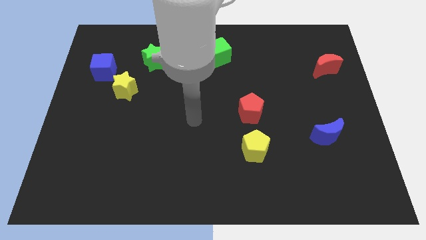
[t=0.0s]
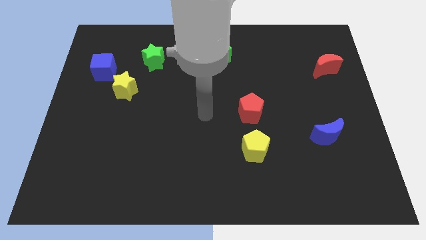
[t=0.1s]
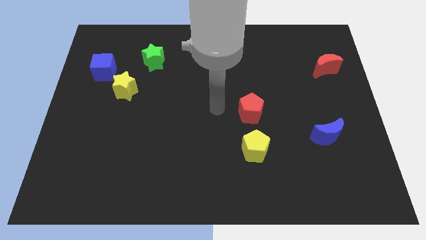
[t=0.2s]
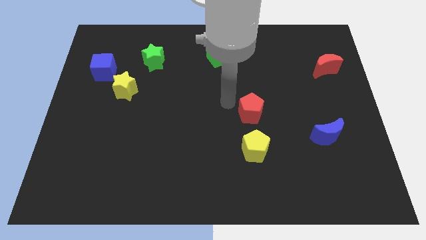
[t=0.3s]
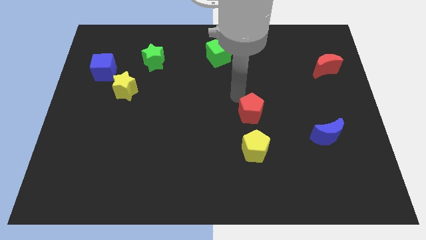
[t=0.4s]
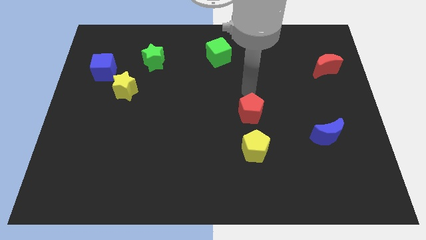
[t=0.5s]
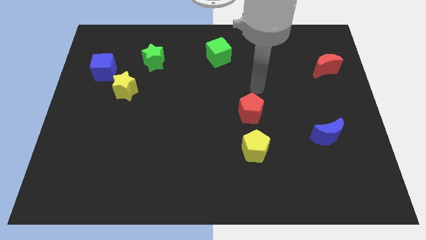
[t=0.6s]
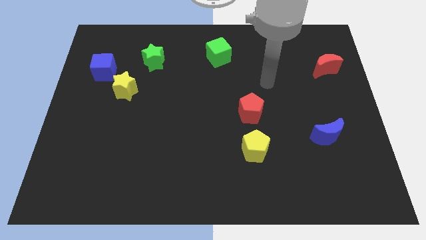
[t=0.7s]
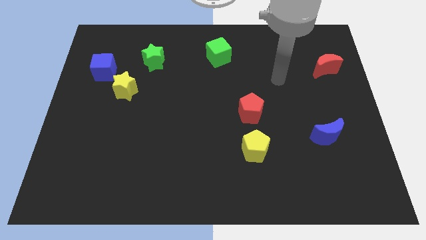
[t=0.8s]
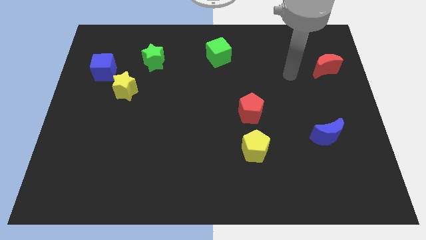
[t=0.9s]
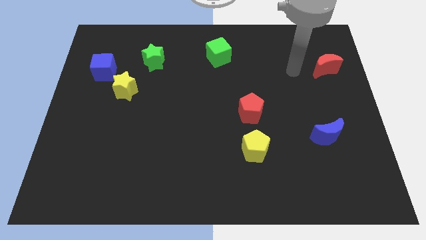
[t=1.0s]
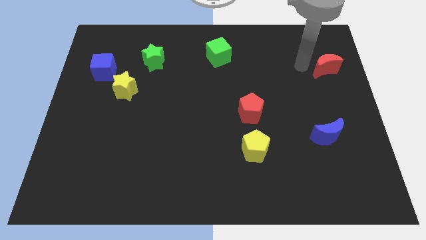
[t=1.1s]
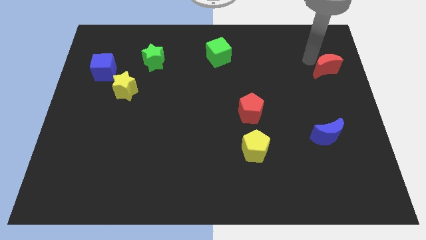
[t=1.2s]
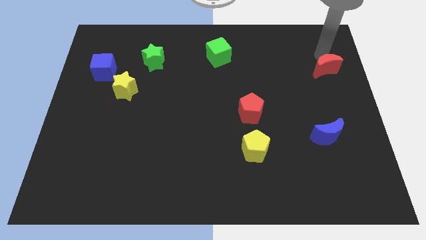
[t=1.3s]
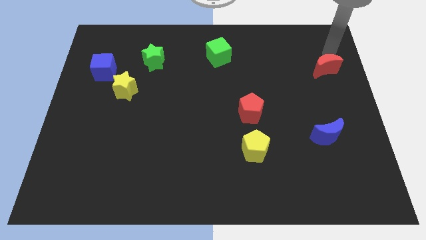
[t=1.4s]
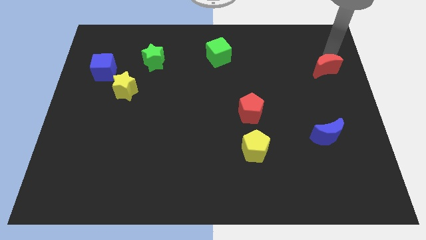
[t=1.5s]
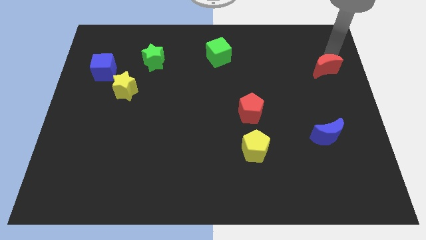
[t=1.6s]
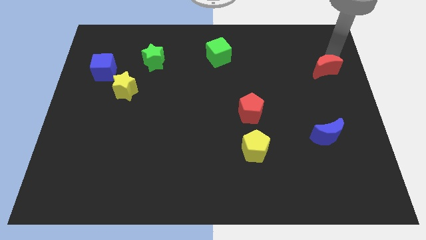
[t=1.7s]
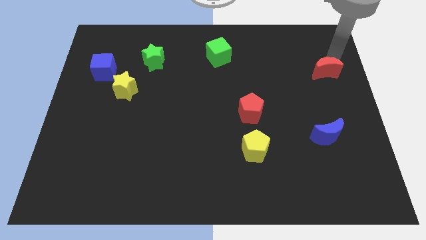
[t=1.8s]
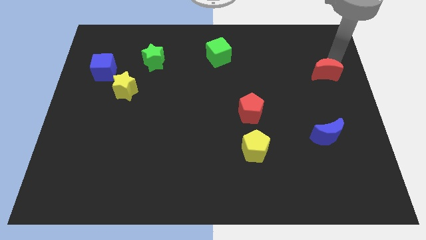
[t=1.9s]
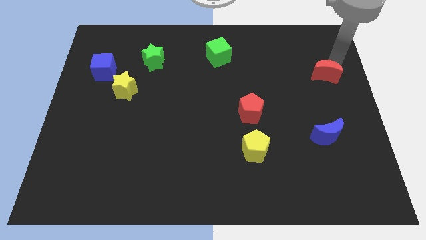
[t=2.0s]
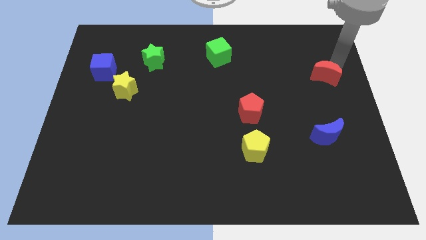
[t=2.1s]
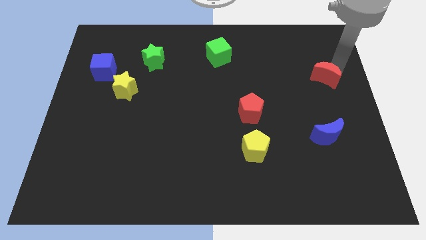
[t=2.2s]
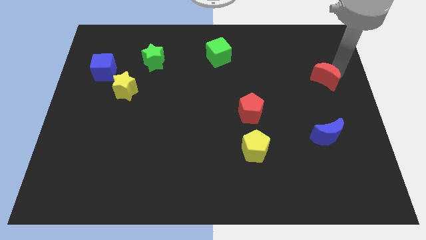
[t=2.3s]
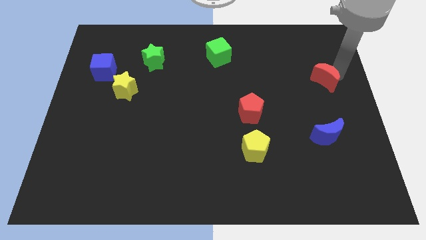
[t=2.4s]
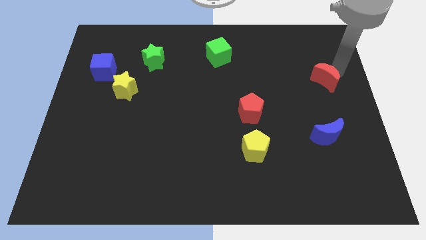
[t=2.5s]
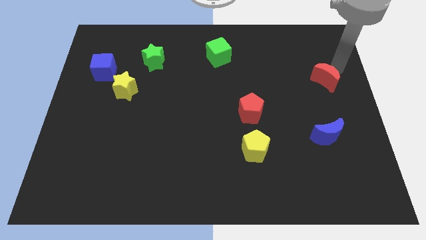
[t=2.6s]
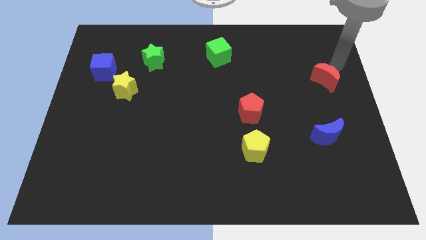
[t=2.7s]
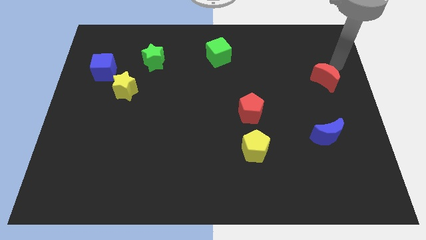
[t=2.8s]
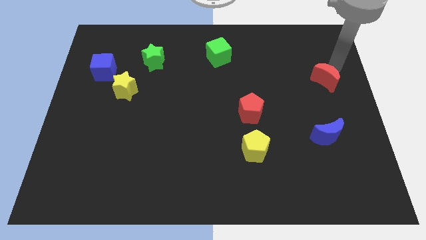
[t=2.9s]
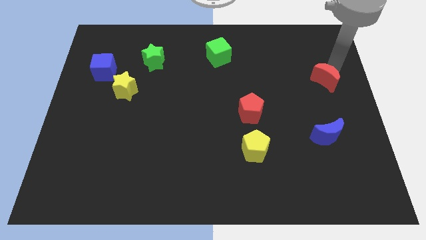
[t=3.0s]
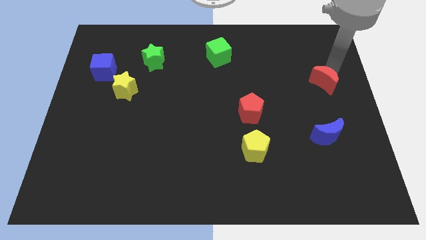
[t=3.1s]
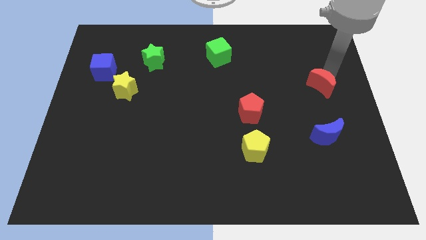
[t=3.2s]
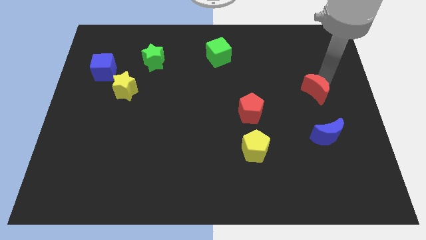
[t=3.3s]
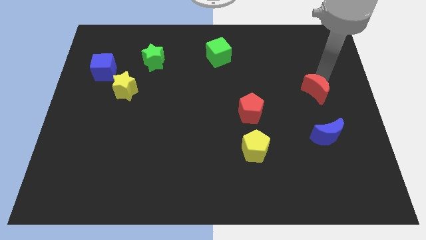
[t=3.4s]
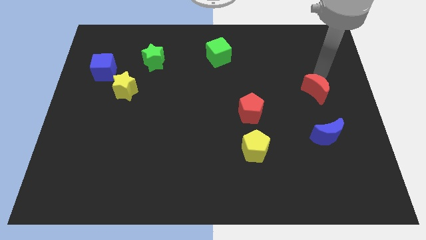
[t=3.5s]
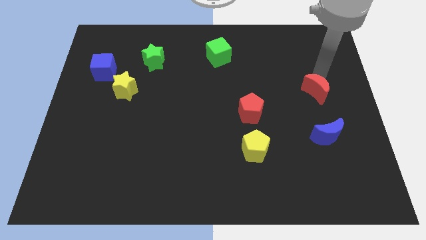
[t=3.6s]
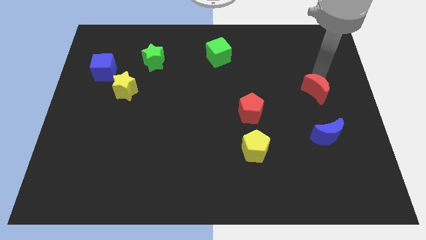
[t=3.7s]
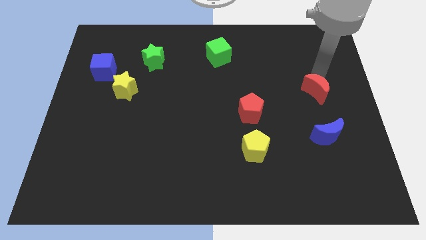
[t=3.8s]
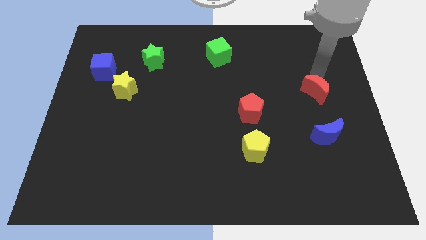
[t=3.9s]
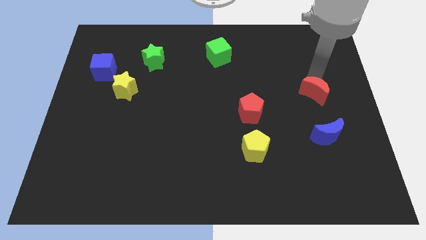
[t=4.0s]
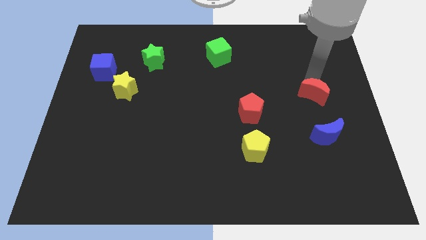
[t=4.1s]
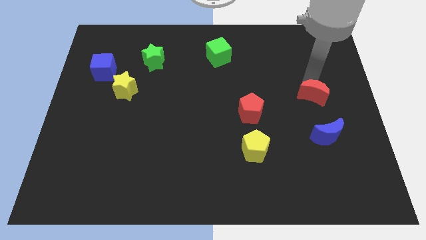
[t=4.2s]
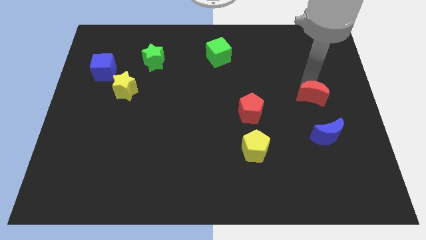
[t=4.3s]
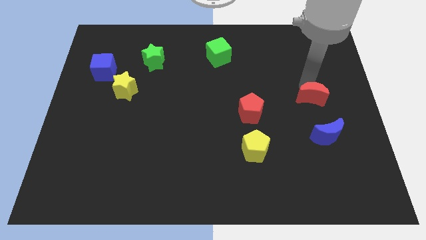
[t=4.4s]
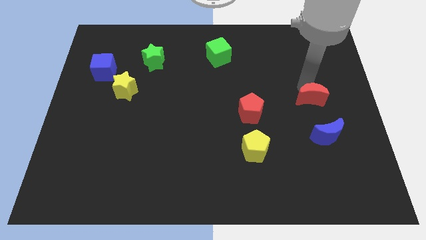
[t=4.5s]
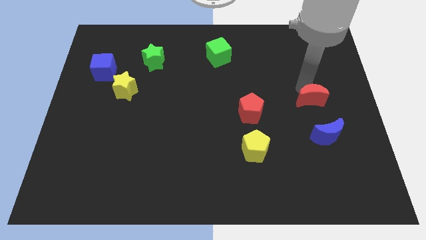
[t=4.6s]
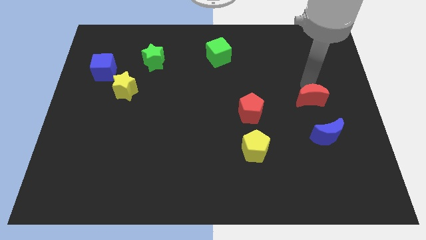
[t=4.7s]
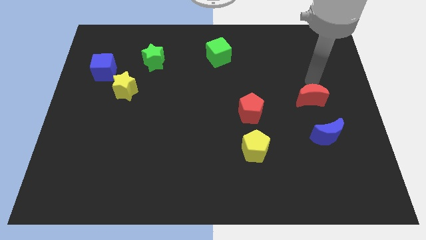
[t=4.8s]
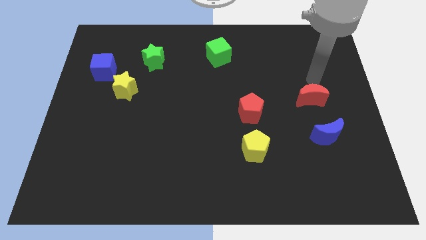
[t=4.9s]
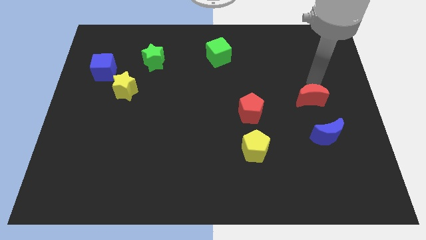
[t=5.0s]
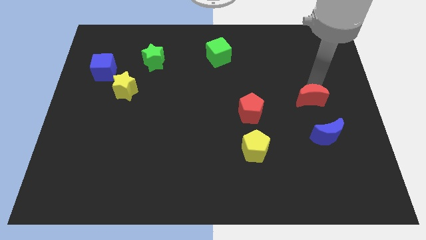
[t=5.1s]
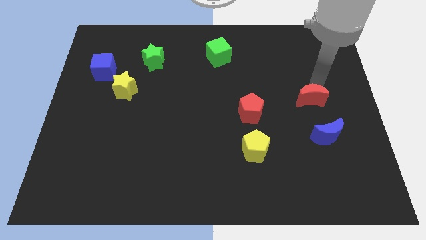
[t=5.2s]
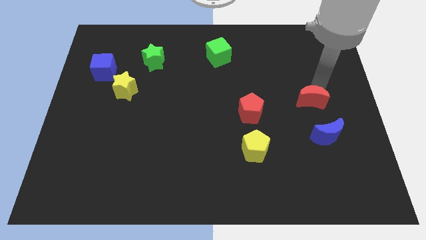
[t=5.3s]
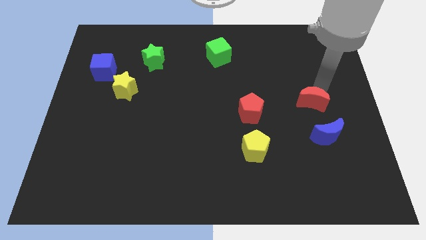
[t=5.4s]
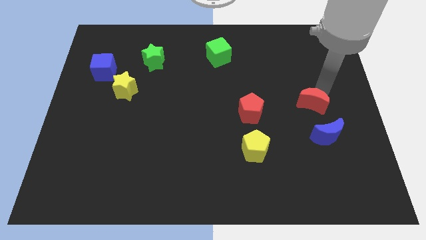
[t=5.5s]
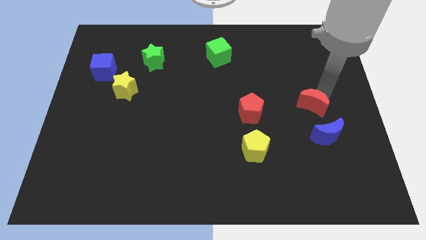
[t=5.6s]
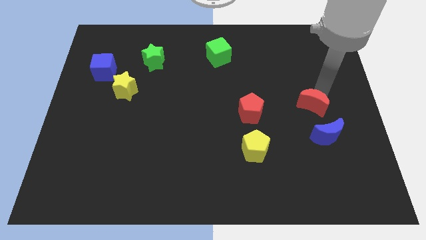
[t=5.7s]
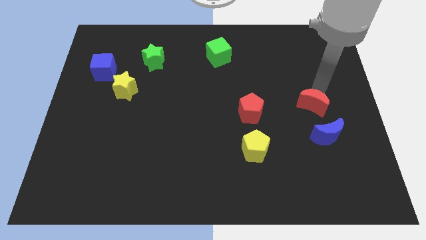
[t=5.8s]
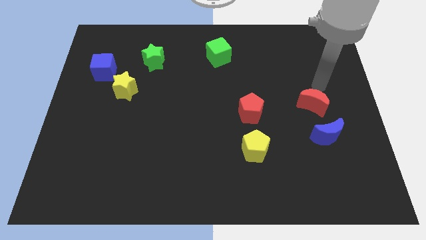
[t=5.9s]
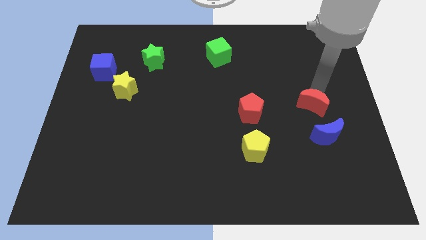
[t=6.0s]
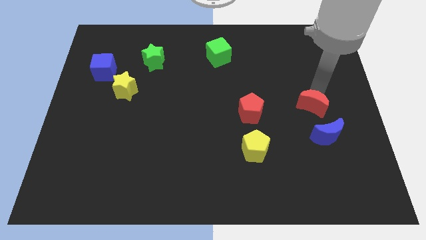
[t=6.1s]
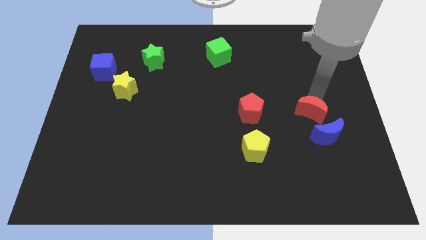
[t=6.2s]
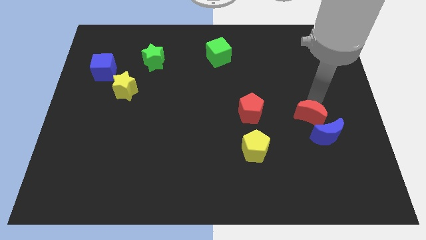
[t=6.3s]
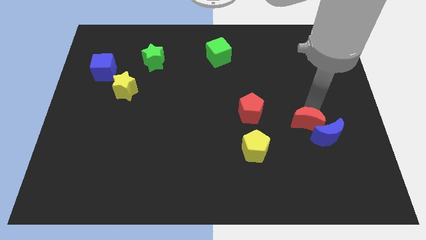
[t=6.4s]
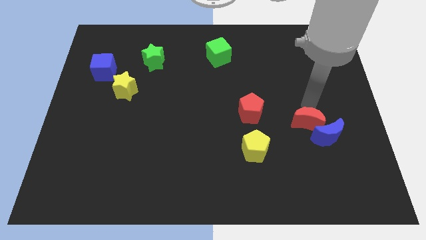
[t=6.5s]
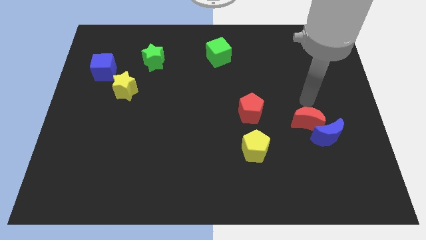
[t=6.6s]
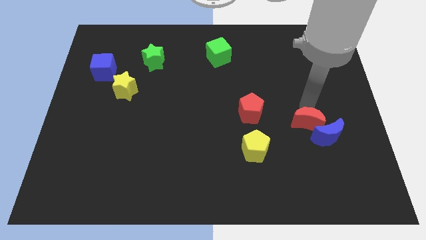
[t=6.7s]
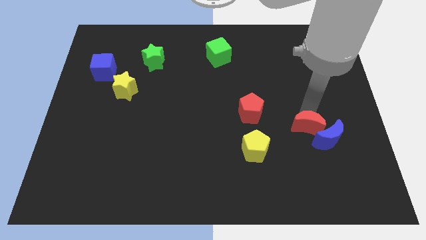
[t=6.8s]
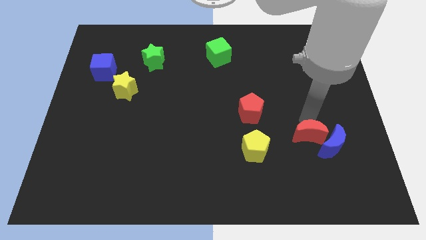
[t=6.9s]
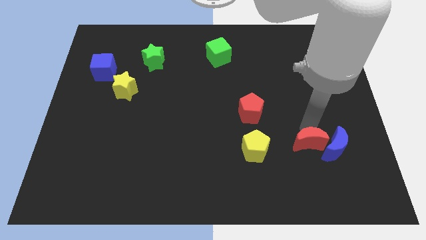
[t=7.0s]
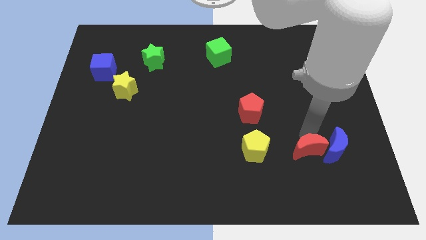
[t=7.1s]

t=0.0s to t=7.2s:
put the red moon to the bottom left of the blue moon

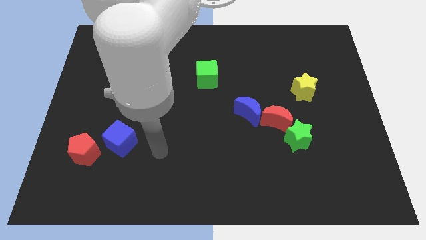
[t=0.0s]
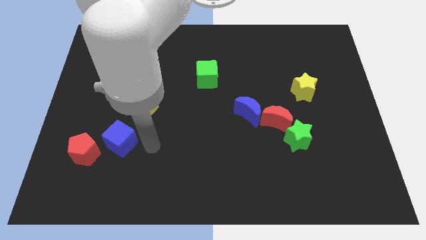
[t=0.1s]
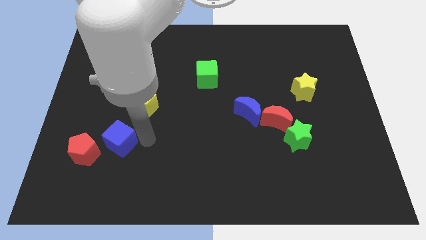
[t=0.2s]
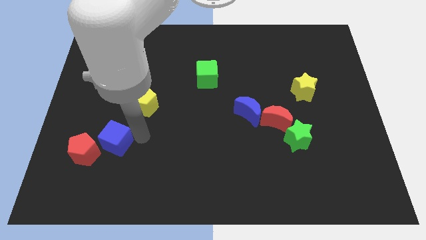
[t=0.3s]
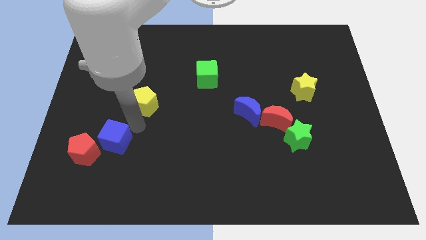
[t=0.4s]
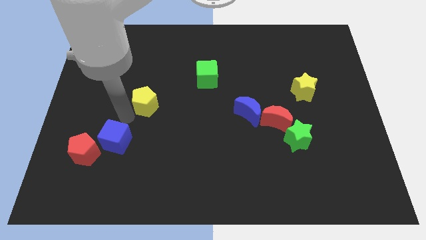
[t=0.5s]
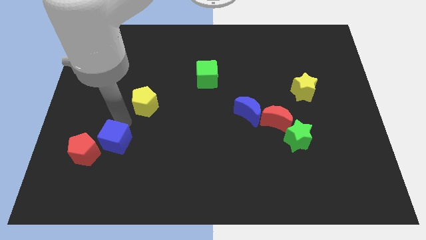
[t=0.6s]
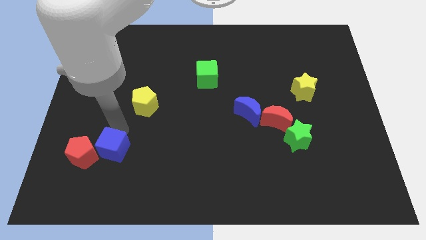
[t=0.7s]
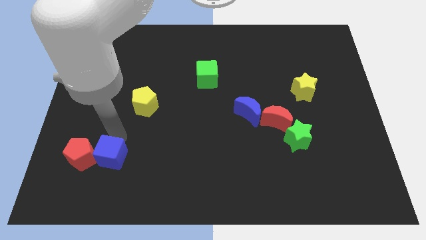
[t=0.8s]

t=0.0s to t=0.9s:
put the blue cube diagonally down and to the right of the red pentagon
